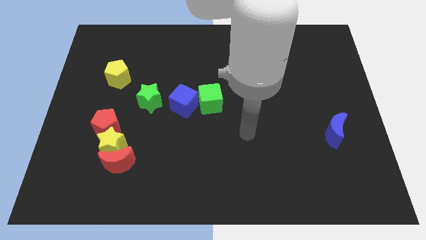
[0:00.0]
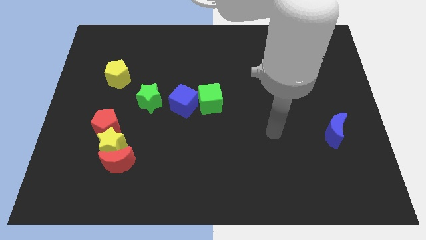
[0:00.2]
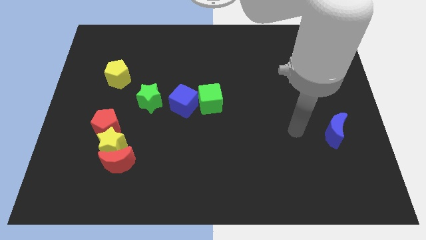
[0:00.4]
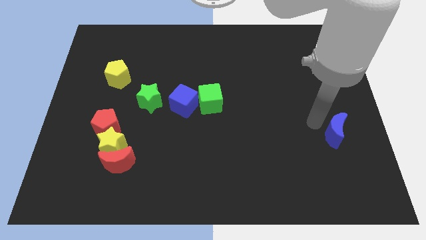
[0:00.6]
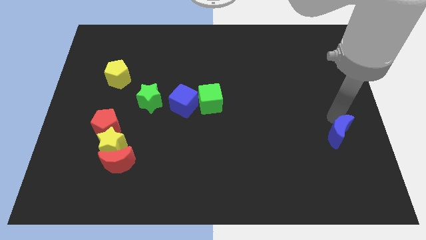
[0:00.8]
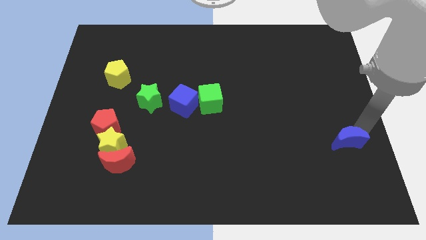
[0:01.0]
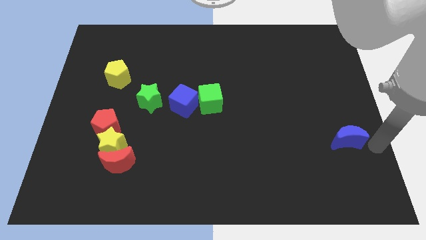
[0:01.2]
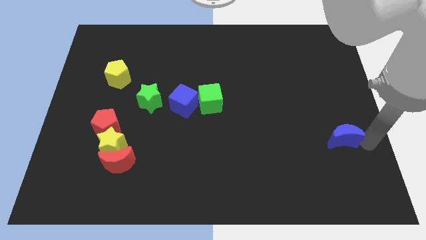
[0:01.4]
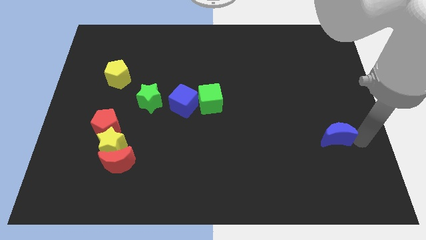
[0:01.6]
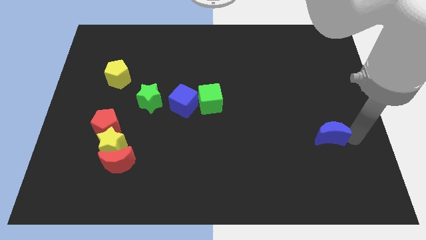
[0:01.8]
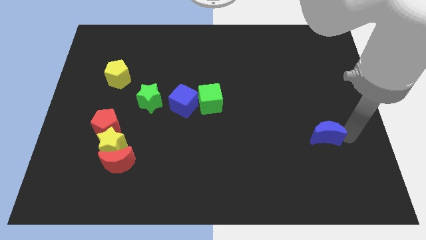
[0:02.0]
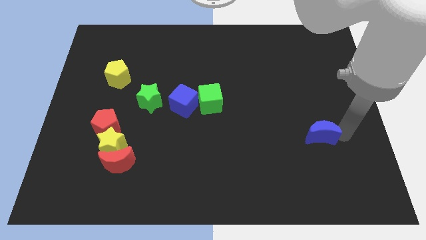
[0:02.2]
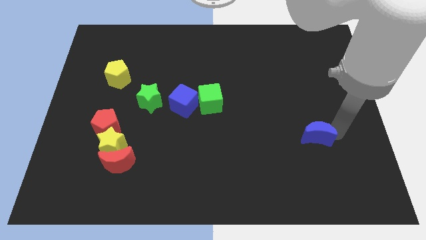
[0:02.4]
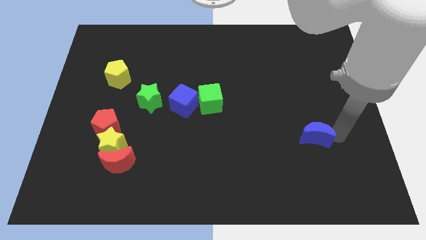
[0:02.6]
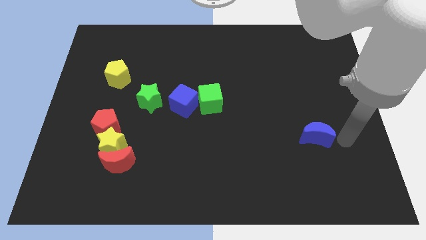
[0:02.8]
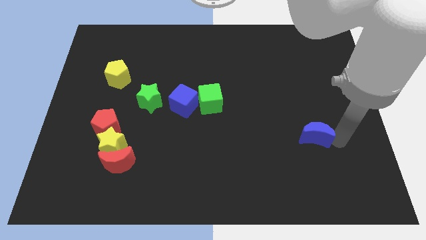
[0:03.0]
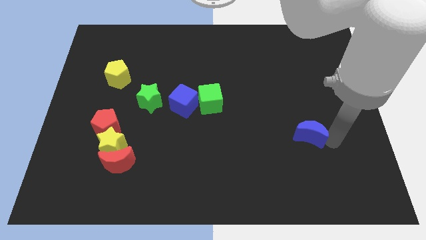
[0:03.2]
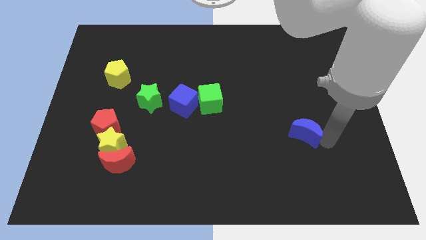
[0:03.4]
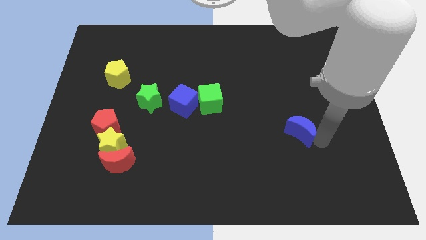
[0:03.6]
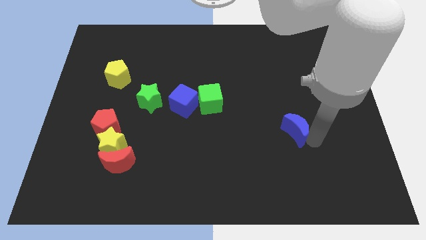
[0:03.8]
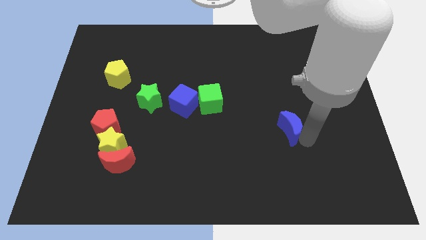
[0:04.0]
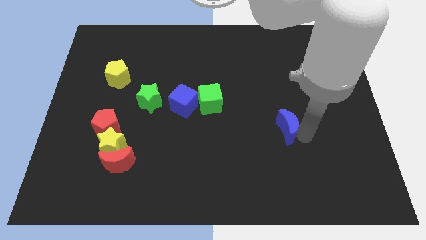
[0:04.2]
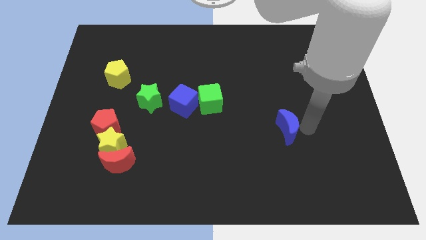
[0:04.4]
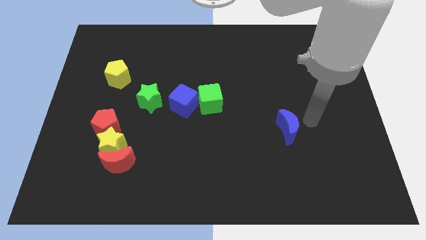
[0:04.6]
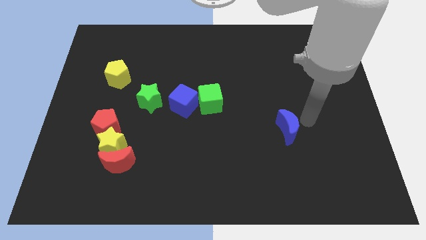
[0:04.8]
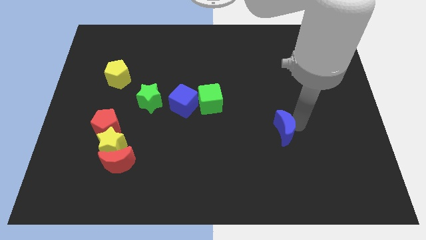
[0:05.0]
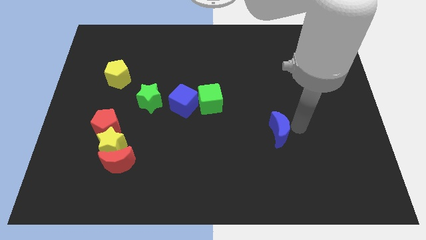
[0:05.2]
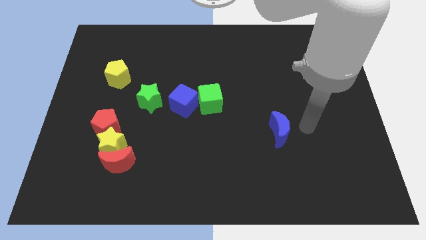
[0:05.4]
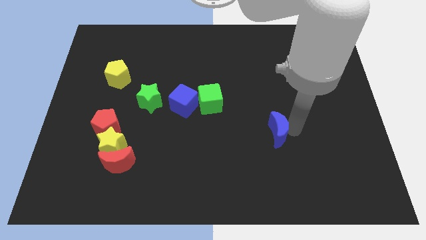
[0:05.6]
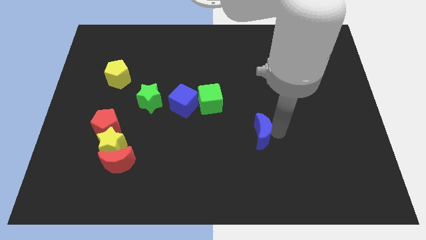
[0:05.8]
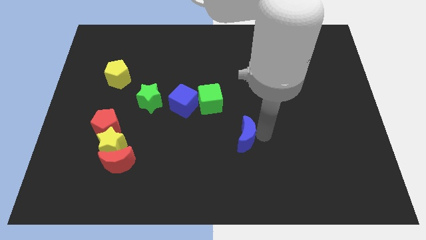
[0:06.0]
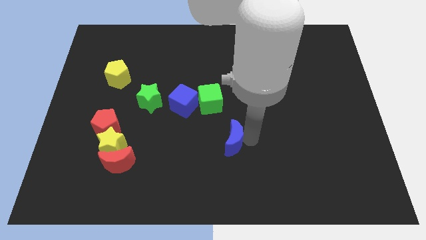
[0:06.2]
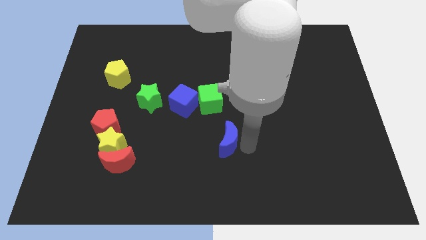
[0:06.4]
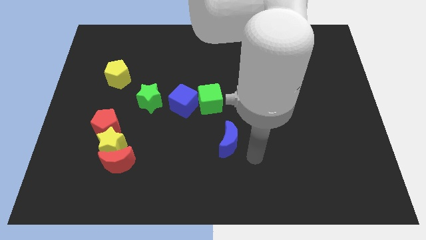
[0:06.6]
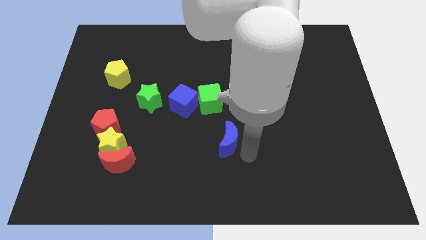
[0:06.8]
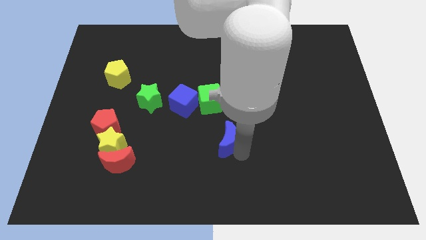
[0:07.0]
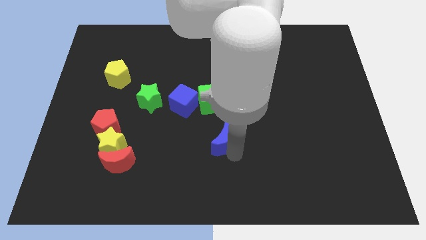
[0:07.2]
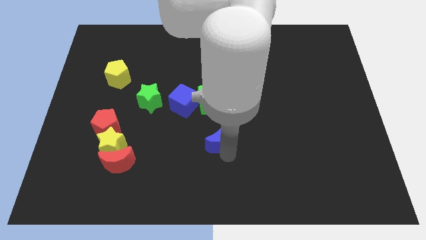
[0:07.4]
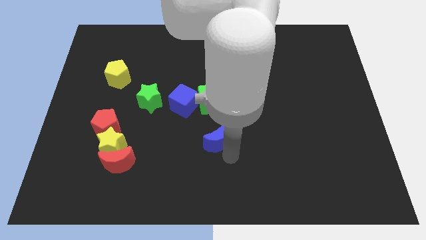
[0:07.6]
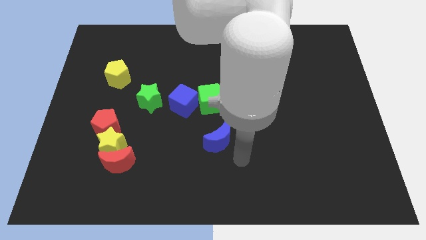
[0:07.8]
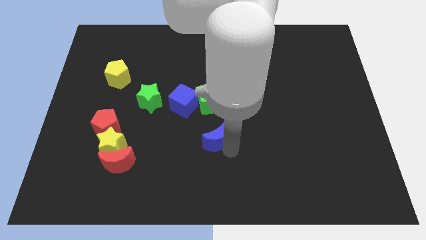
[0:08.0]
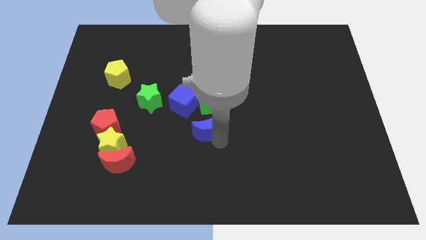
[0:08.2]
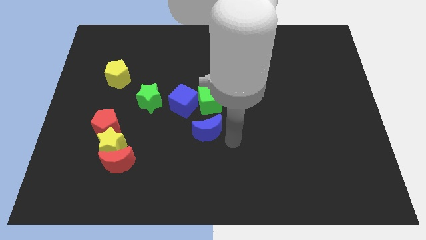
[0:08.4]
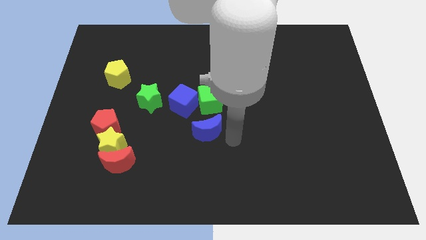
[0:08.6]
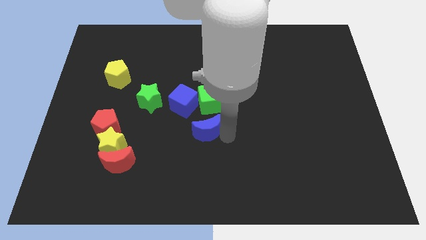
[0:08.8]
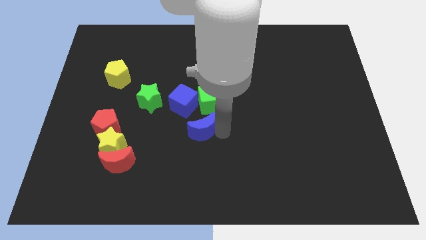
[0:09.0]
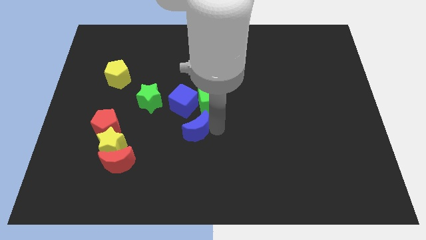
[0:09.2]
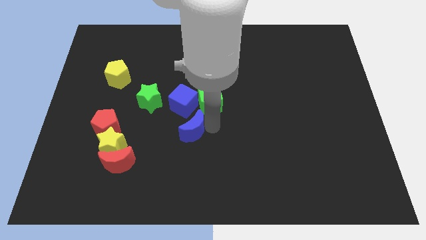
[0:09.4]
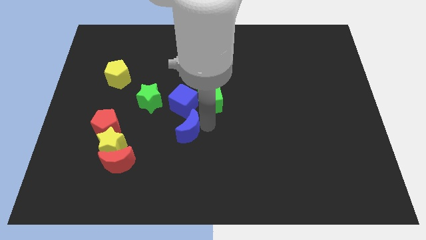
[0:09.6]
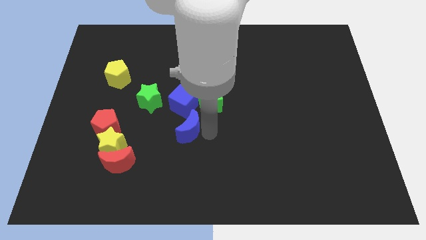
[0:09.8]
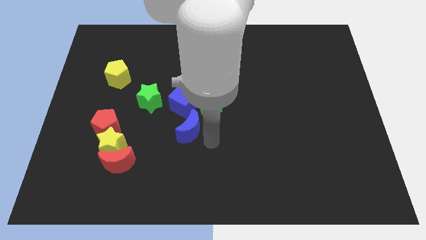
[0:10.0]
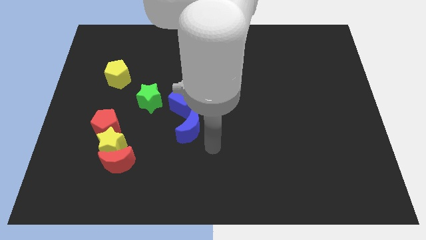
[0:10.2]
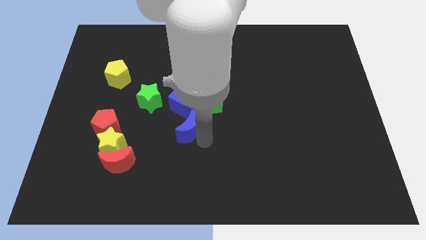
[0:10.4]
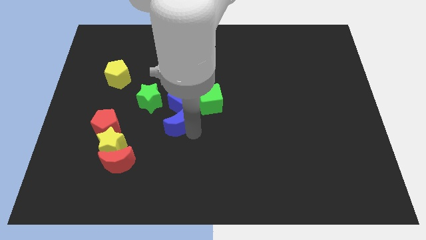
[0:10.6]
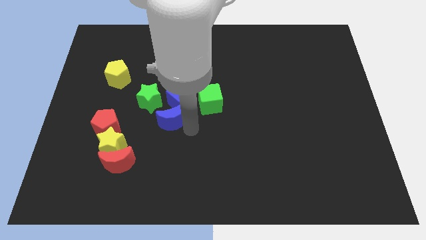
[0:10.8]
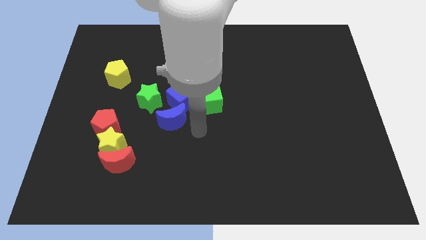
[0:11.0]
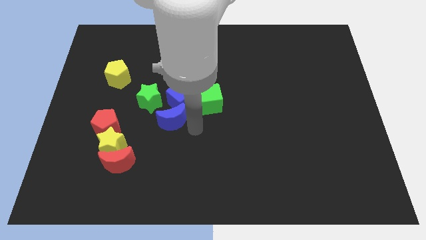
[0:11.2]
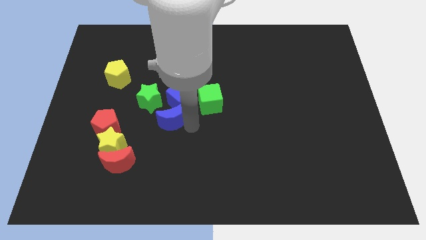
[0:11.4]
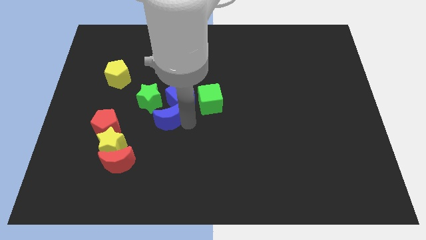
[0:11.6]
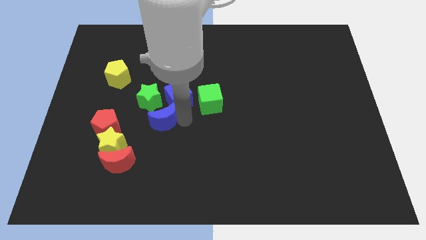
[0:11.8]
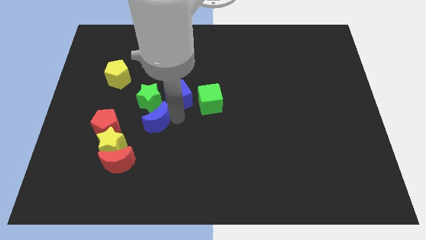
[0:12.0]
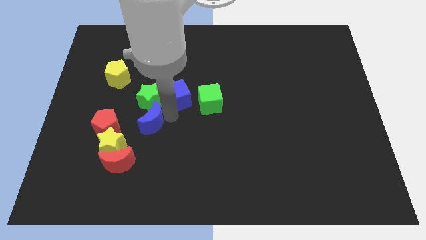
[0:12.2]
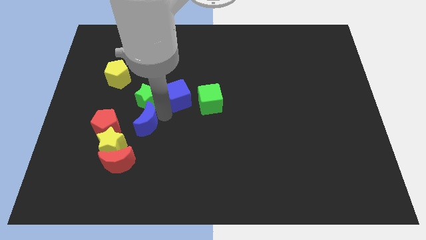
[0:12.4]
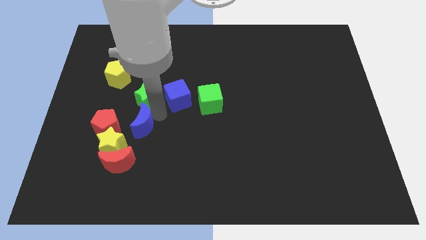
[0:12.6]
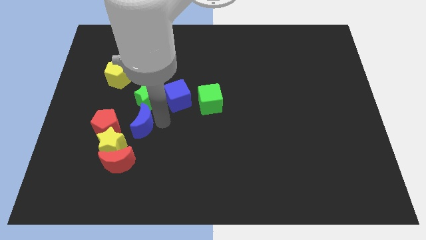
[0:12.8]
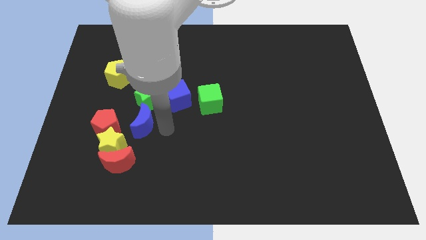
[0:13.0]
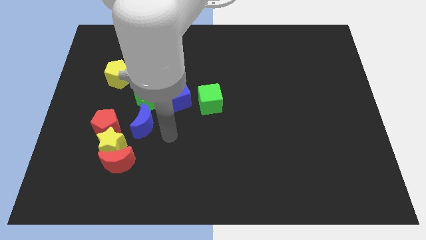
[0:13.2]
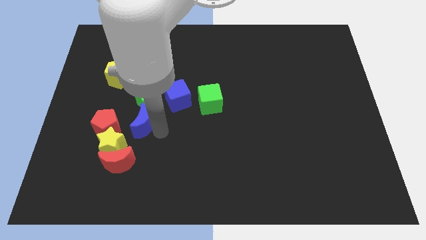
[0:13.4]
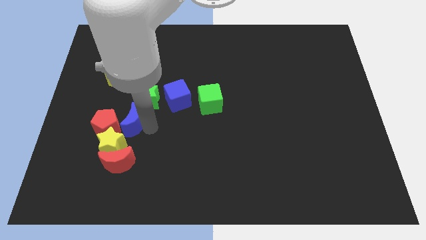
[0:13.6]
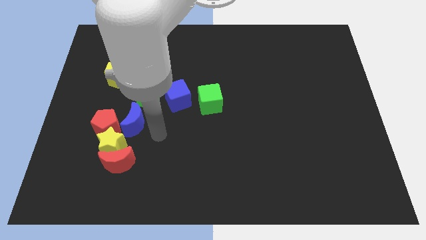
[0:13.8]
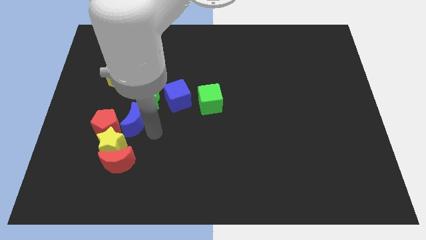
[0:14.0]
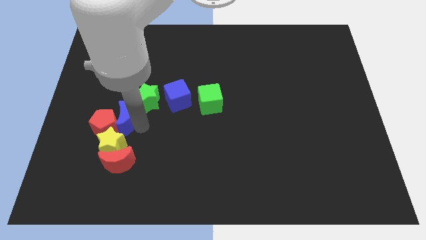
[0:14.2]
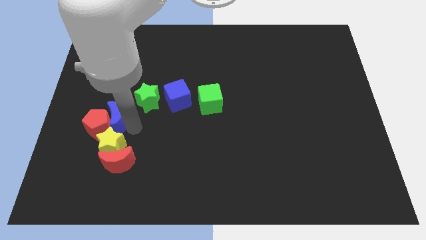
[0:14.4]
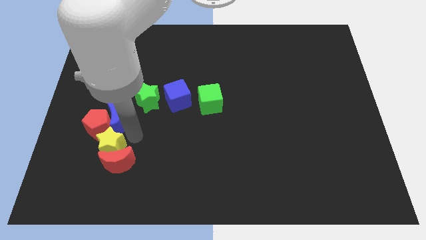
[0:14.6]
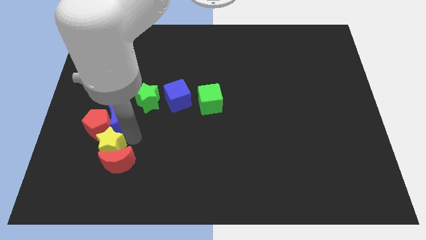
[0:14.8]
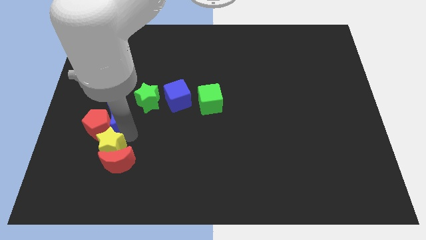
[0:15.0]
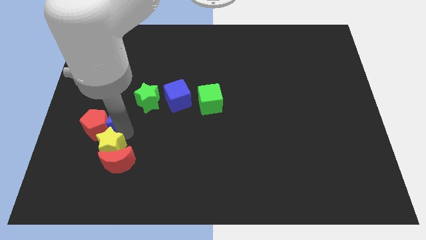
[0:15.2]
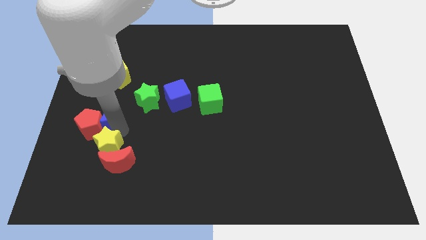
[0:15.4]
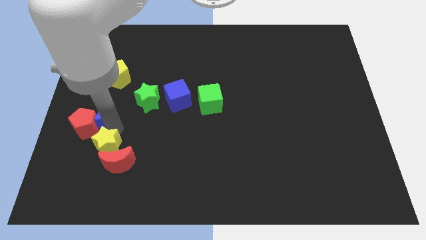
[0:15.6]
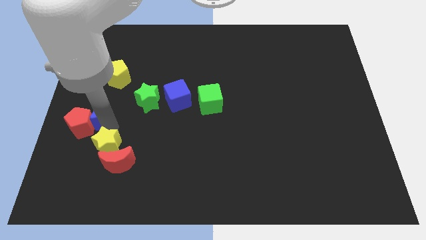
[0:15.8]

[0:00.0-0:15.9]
slide the blue moon to the left side
